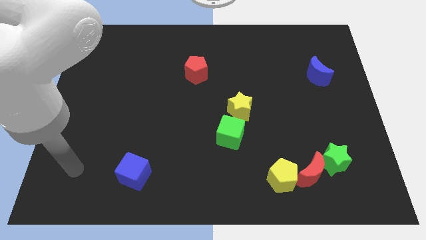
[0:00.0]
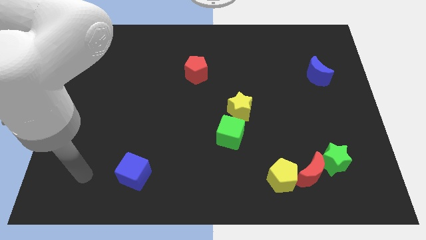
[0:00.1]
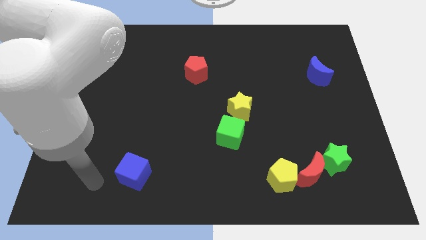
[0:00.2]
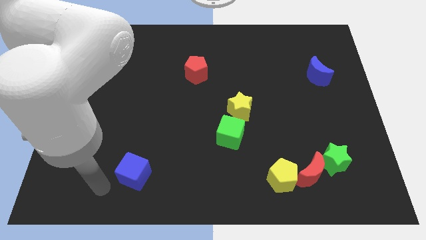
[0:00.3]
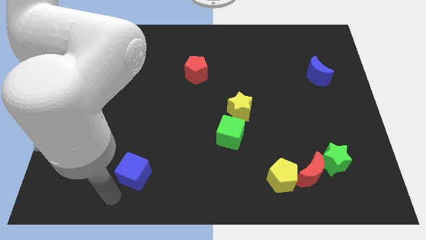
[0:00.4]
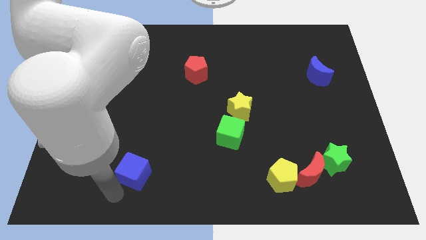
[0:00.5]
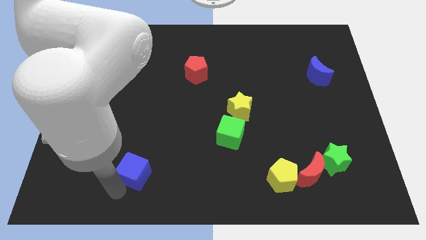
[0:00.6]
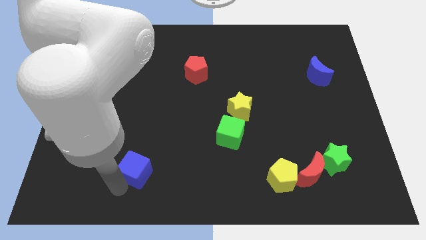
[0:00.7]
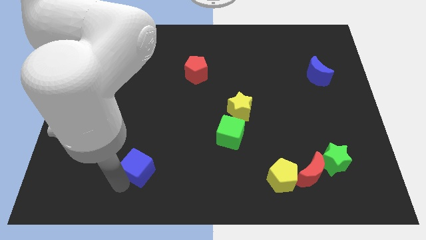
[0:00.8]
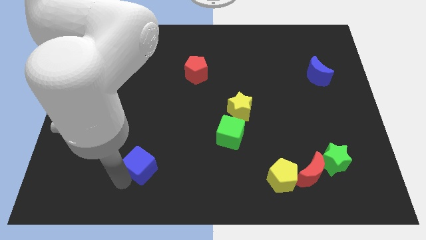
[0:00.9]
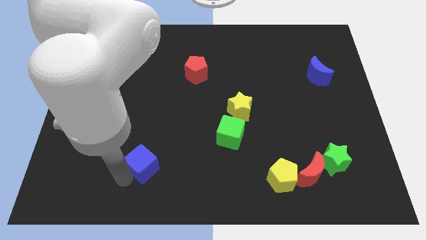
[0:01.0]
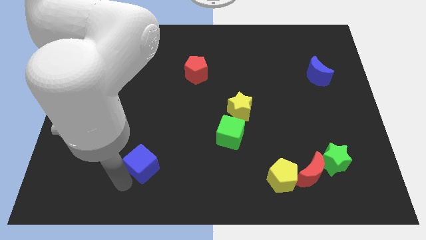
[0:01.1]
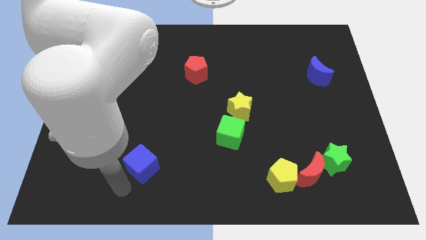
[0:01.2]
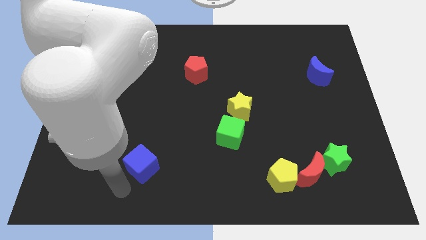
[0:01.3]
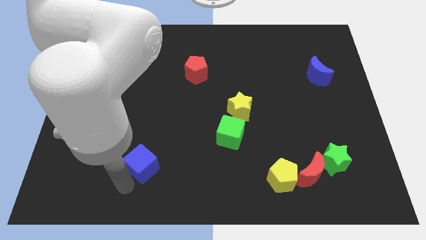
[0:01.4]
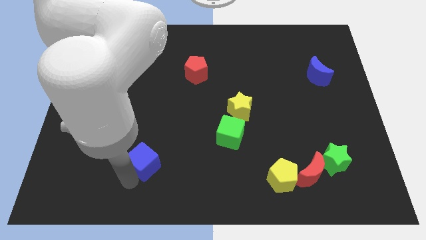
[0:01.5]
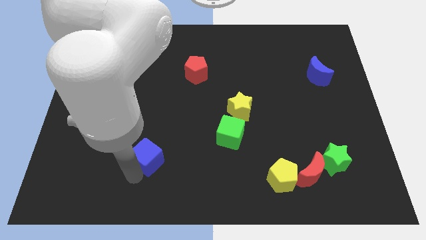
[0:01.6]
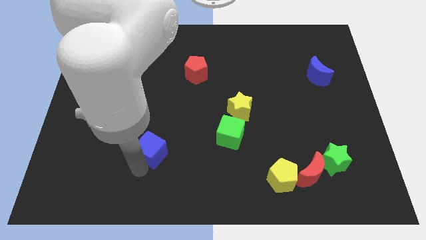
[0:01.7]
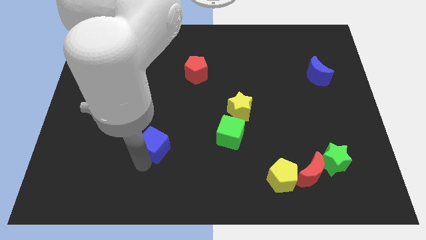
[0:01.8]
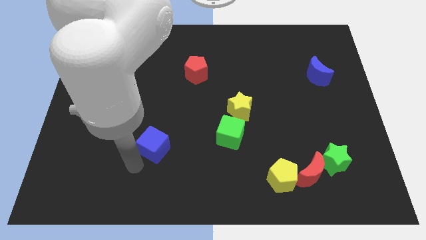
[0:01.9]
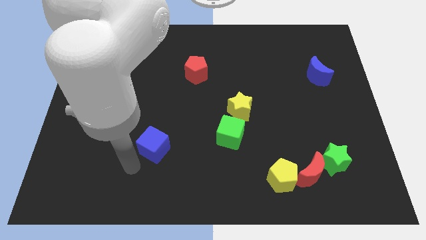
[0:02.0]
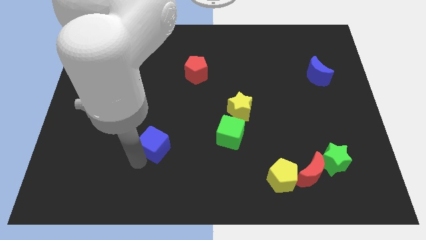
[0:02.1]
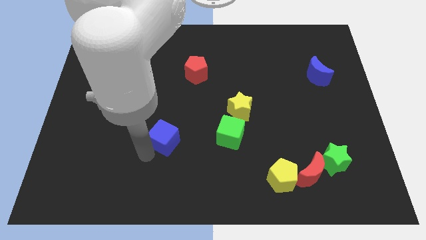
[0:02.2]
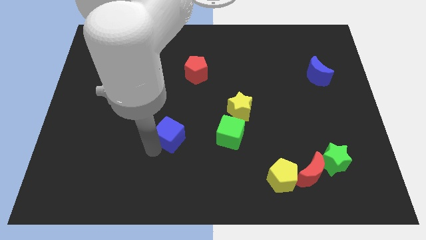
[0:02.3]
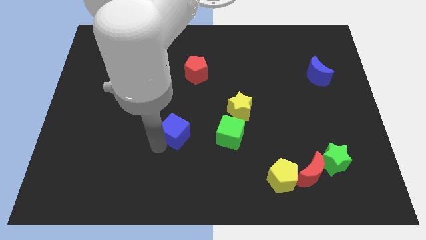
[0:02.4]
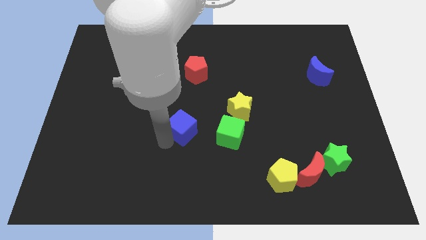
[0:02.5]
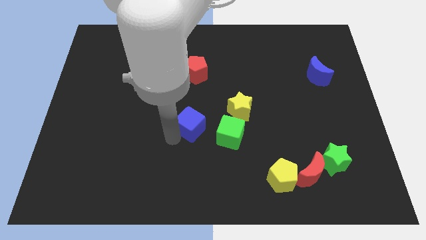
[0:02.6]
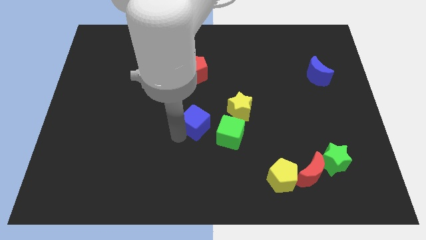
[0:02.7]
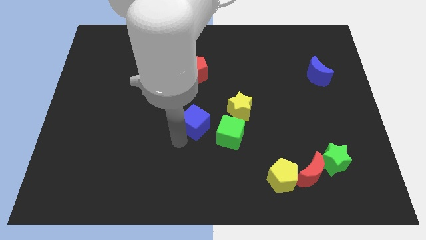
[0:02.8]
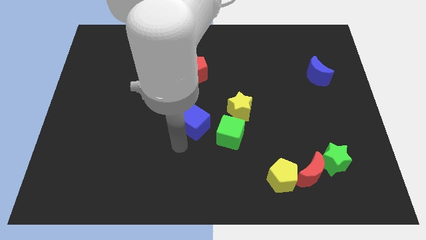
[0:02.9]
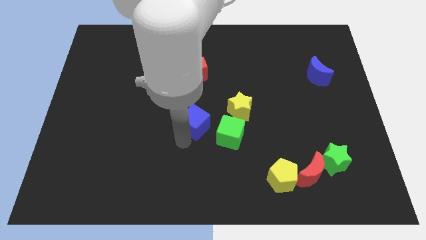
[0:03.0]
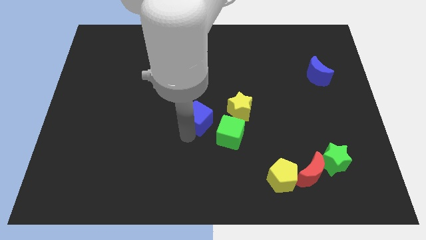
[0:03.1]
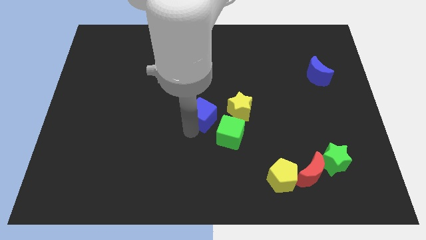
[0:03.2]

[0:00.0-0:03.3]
push the blue cube up and then right

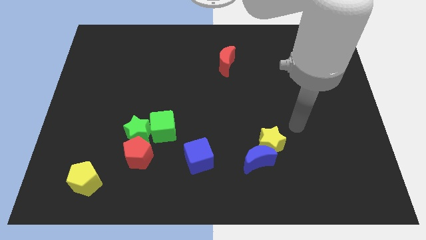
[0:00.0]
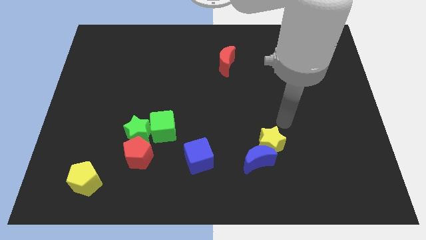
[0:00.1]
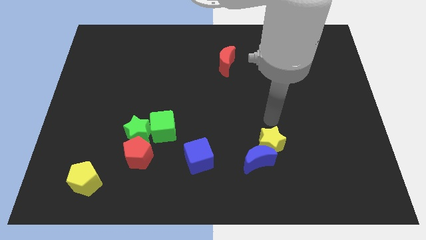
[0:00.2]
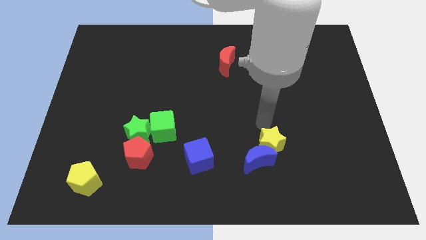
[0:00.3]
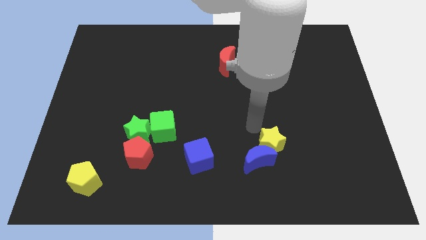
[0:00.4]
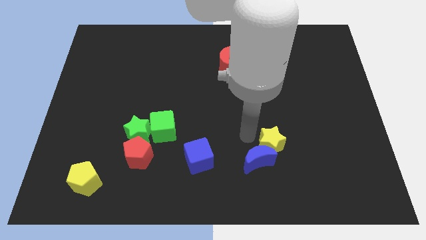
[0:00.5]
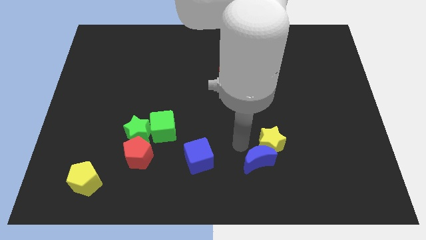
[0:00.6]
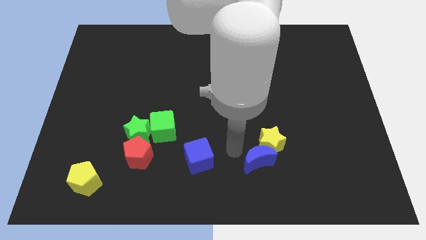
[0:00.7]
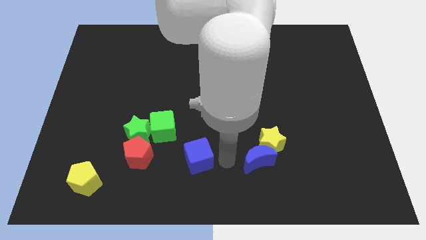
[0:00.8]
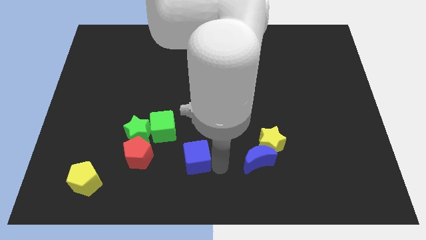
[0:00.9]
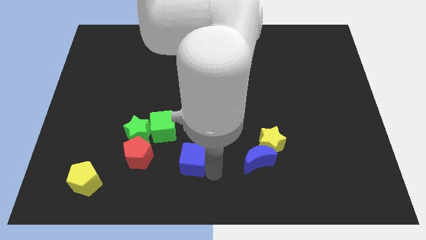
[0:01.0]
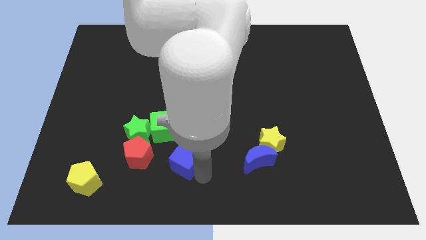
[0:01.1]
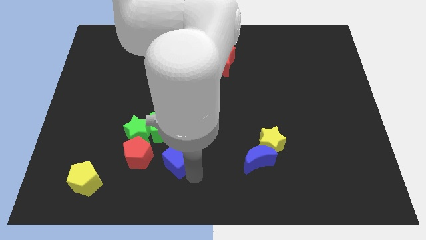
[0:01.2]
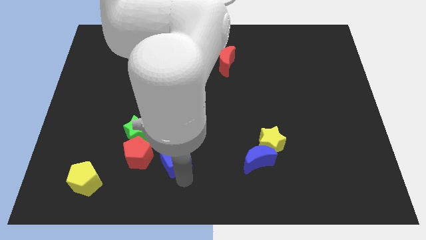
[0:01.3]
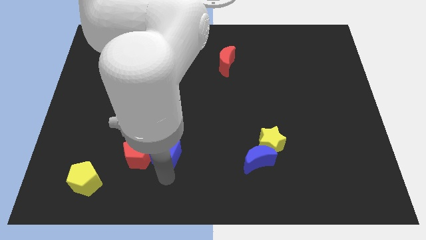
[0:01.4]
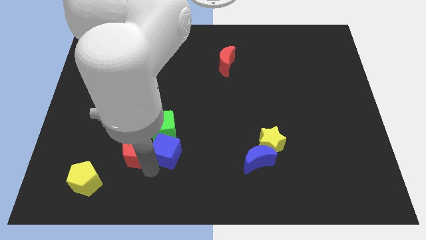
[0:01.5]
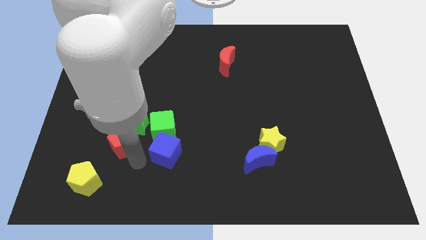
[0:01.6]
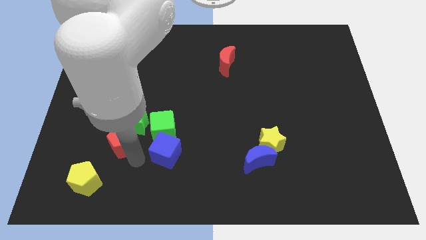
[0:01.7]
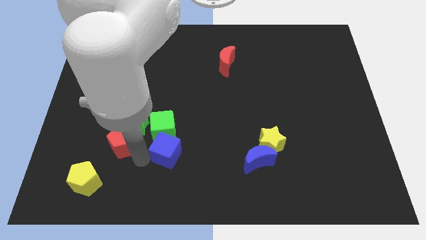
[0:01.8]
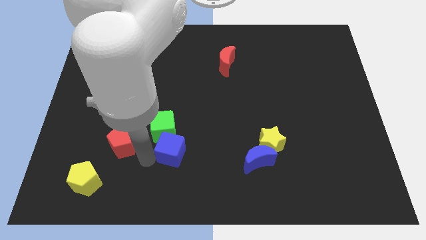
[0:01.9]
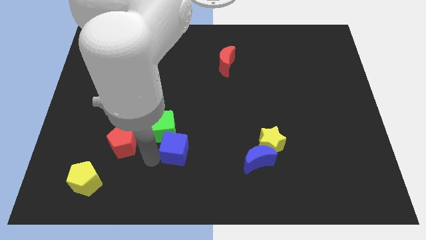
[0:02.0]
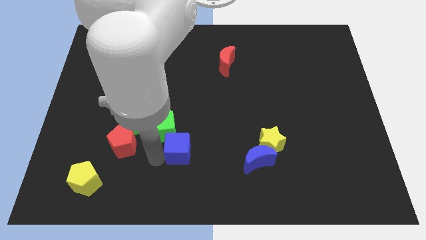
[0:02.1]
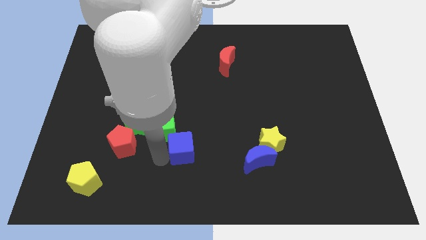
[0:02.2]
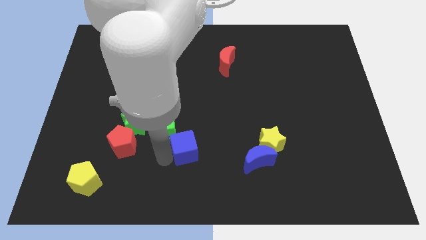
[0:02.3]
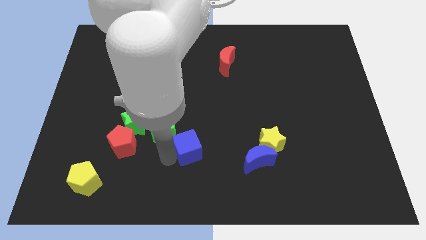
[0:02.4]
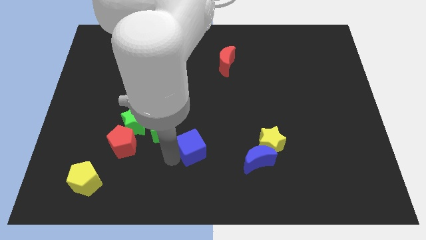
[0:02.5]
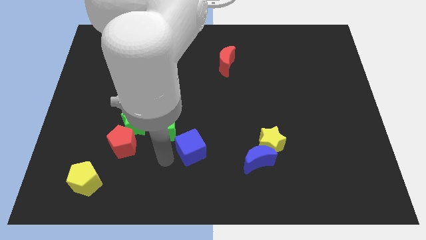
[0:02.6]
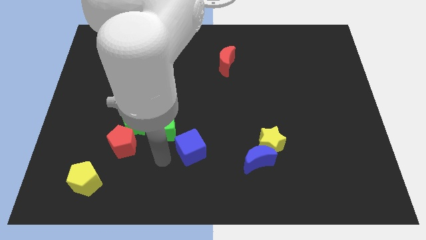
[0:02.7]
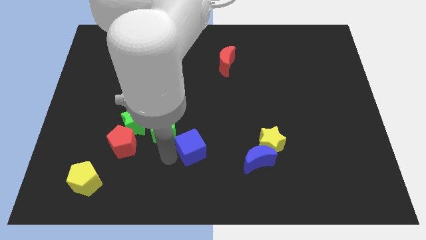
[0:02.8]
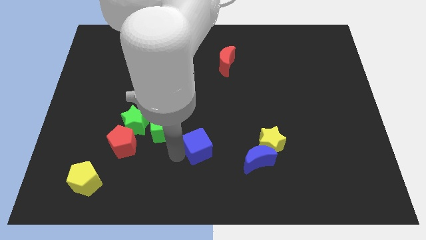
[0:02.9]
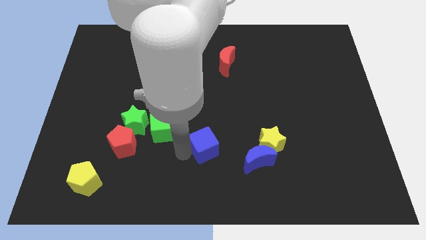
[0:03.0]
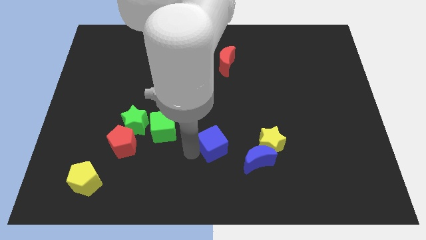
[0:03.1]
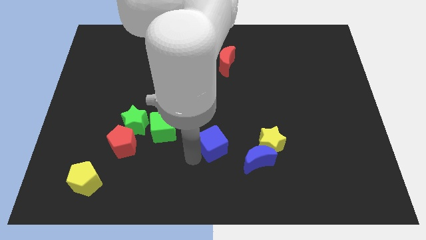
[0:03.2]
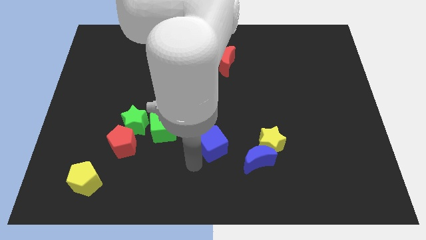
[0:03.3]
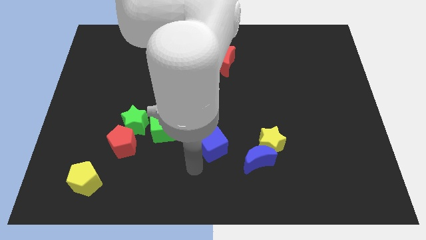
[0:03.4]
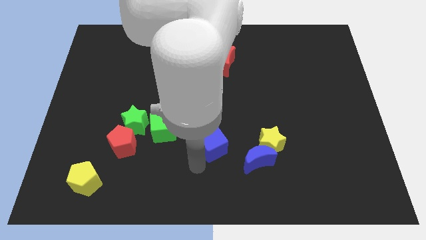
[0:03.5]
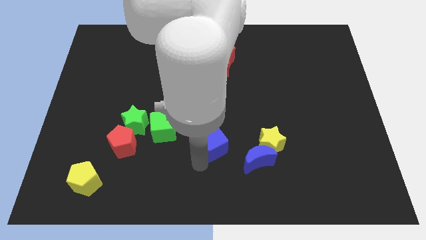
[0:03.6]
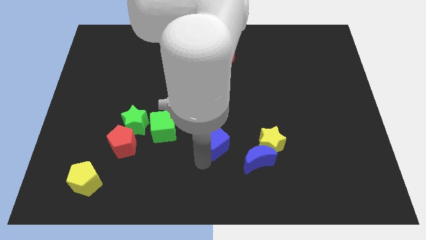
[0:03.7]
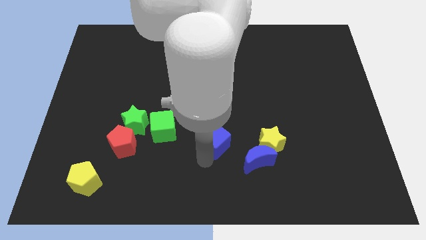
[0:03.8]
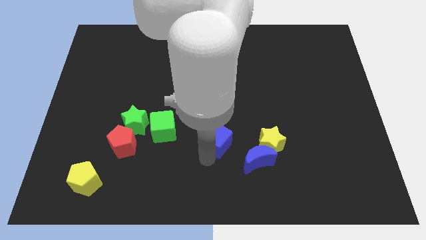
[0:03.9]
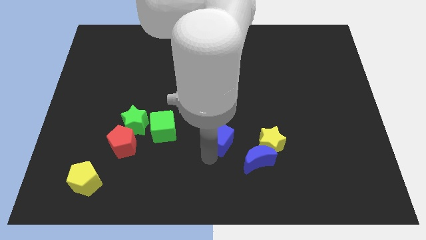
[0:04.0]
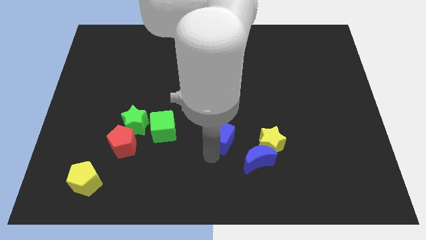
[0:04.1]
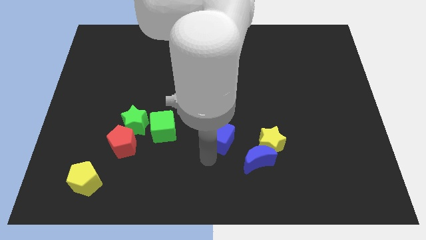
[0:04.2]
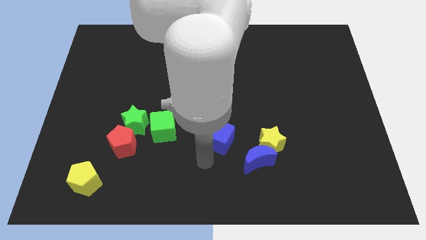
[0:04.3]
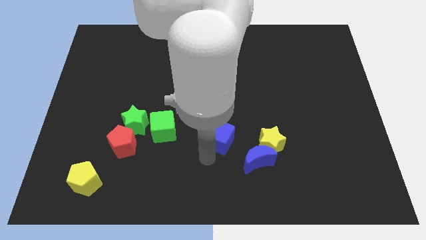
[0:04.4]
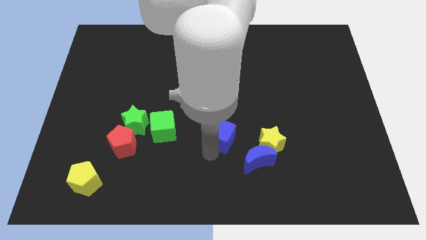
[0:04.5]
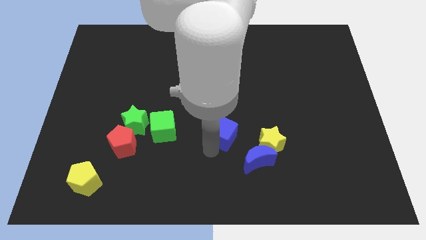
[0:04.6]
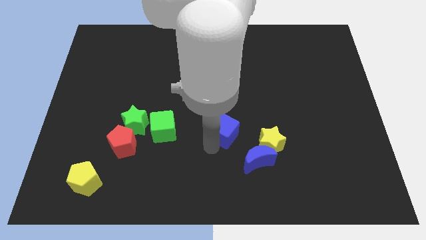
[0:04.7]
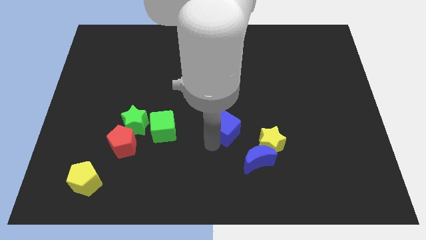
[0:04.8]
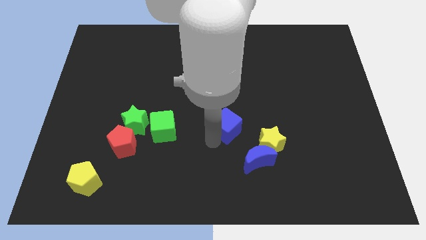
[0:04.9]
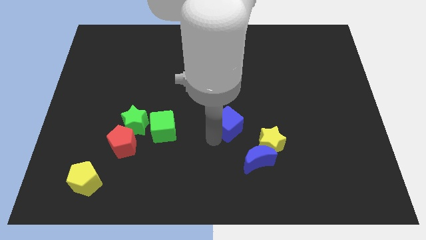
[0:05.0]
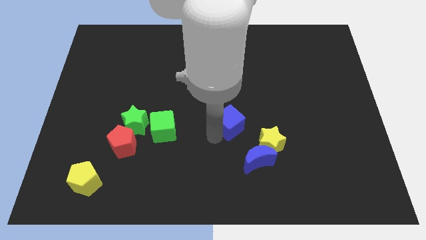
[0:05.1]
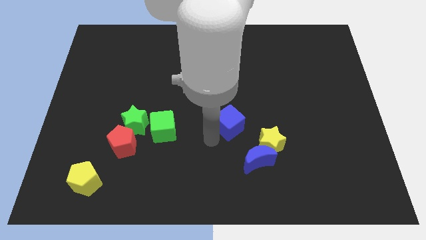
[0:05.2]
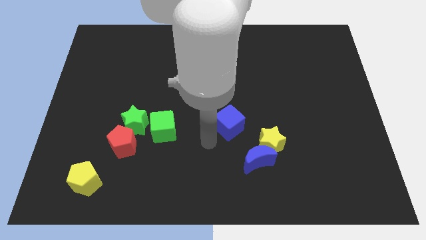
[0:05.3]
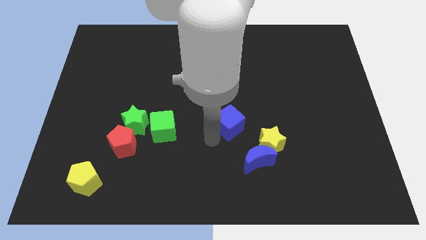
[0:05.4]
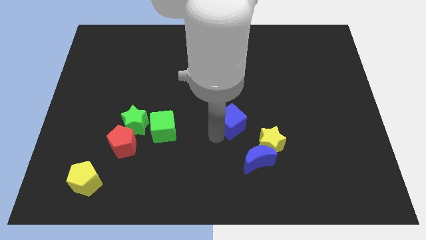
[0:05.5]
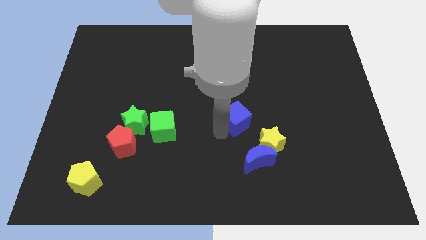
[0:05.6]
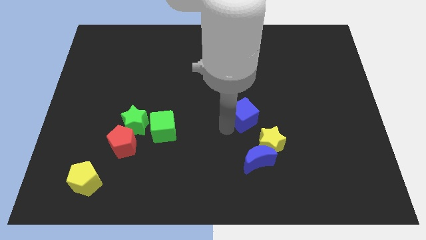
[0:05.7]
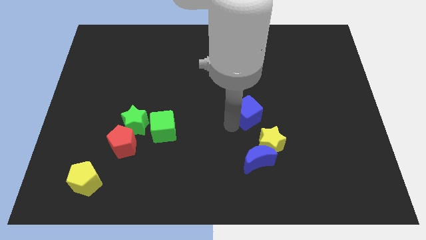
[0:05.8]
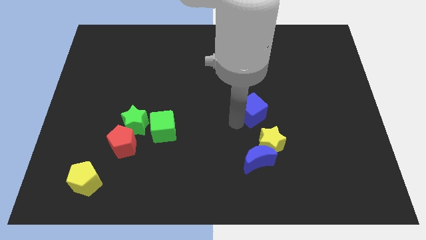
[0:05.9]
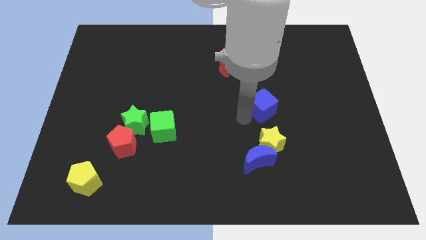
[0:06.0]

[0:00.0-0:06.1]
slide the blue cube diagonally up and right
